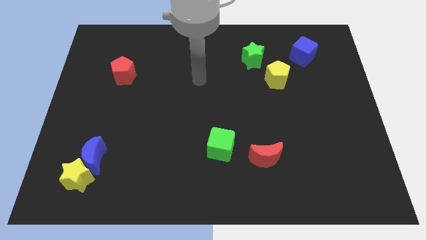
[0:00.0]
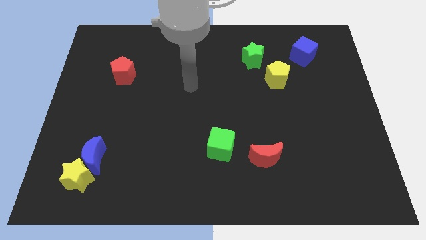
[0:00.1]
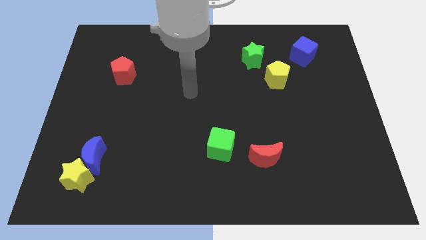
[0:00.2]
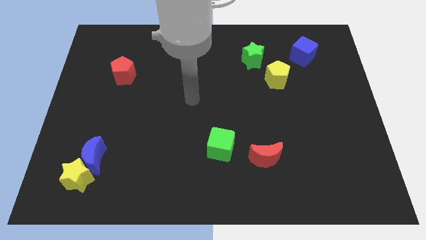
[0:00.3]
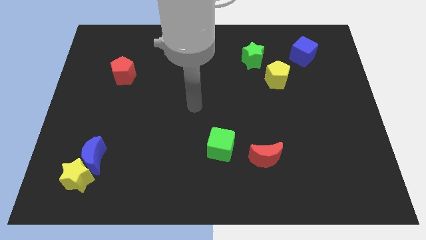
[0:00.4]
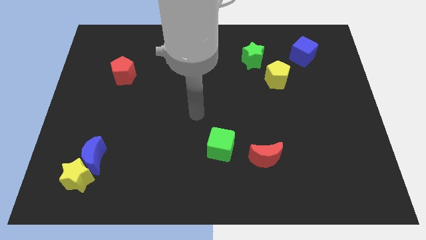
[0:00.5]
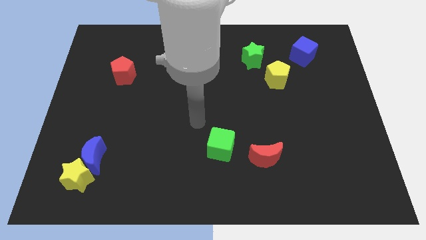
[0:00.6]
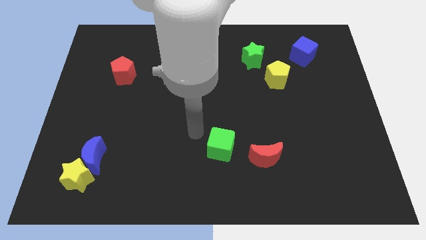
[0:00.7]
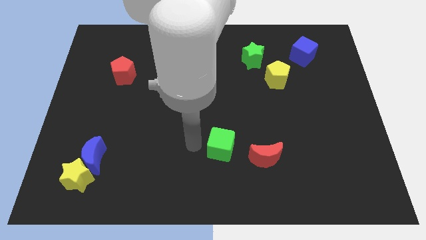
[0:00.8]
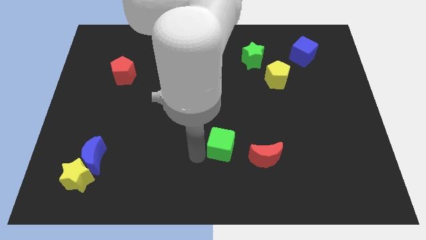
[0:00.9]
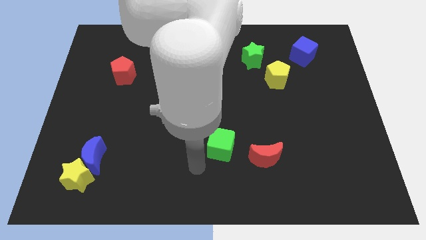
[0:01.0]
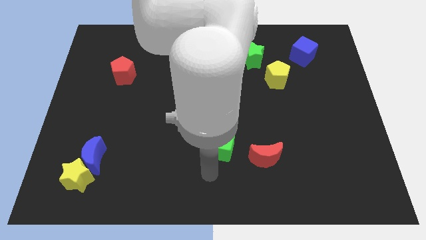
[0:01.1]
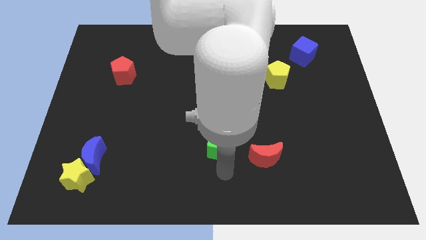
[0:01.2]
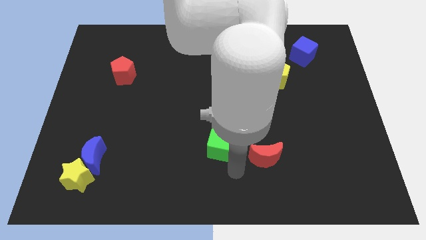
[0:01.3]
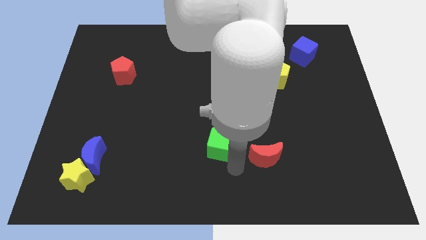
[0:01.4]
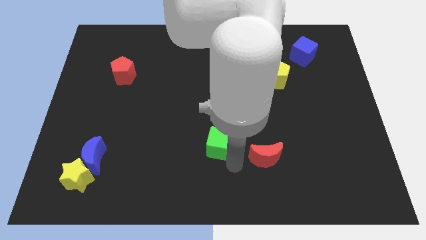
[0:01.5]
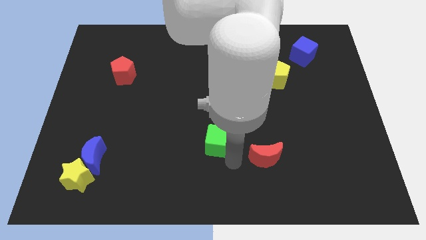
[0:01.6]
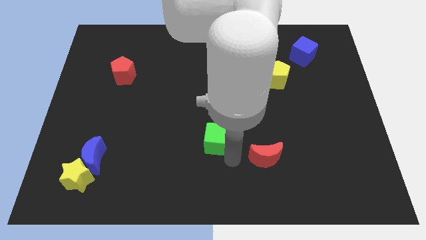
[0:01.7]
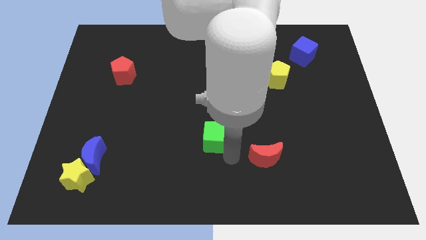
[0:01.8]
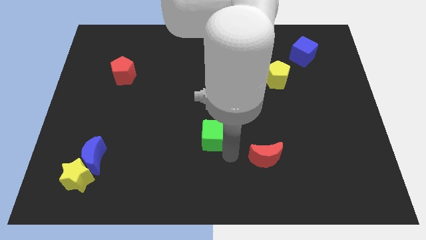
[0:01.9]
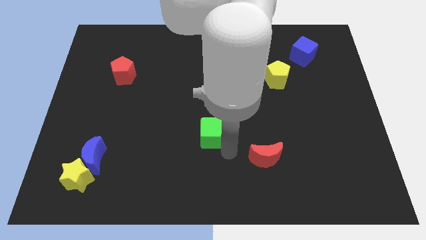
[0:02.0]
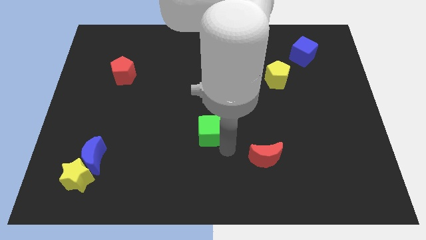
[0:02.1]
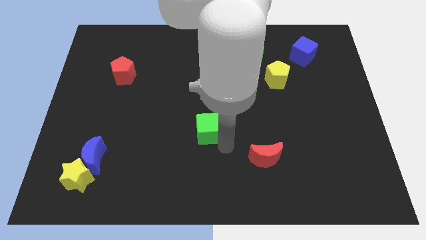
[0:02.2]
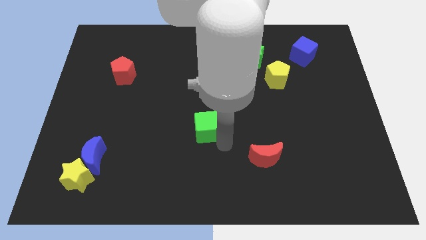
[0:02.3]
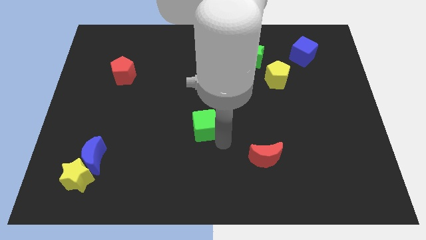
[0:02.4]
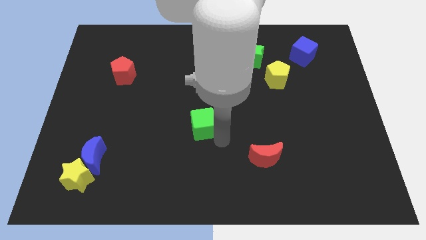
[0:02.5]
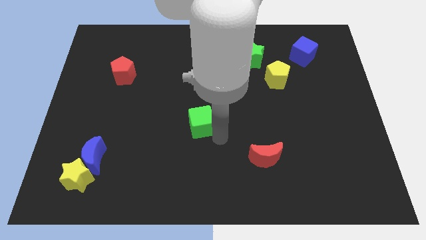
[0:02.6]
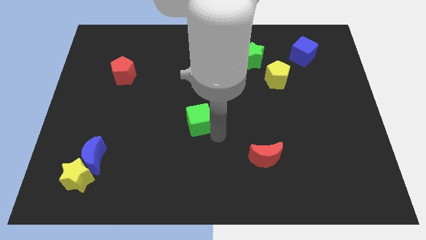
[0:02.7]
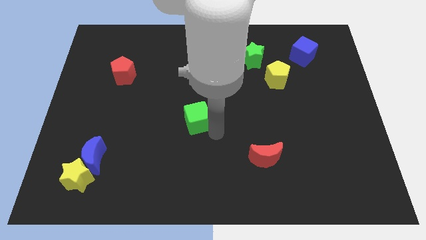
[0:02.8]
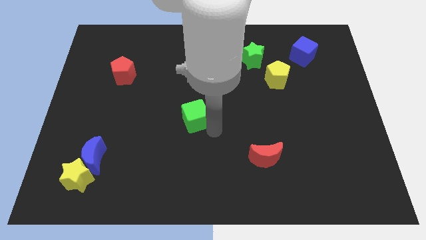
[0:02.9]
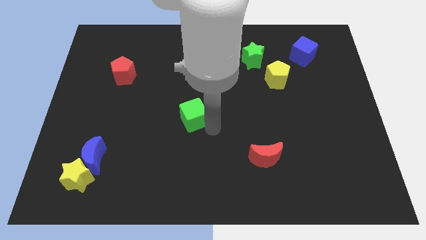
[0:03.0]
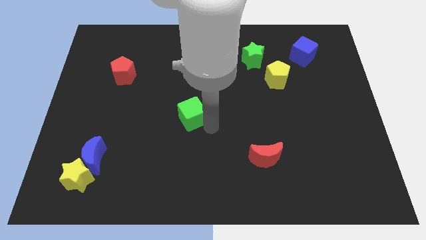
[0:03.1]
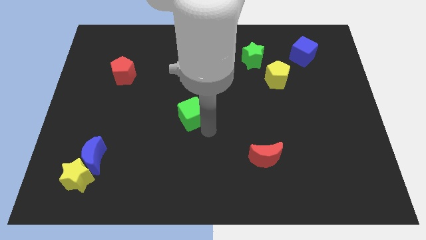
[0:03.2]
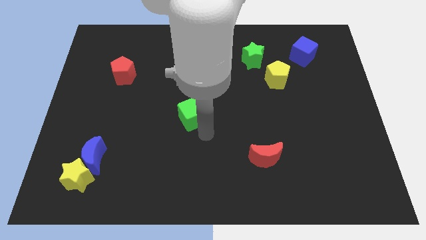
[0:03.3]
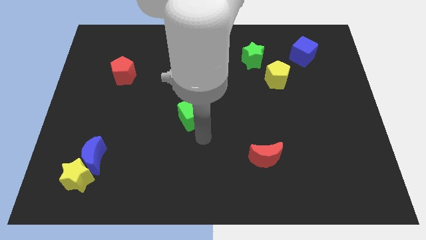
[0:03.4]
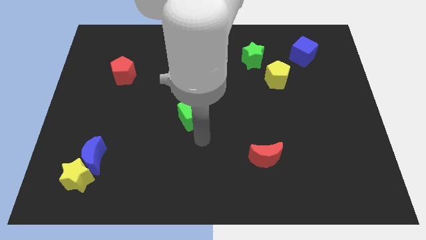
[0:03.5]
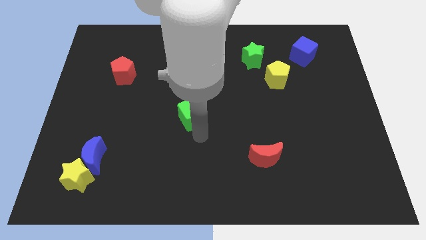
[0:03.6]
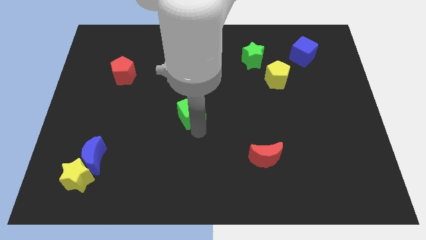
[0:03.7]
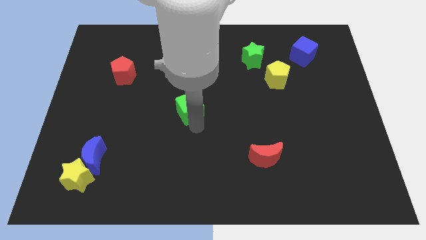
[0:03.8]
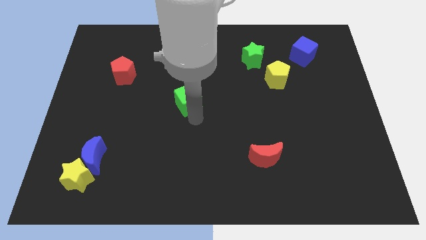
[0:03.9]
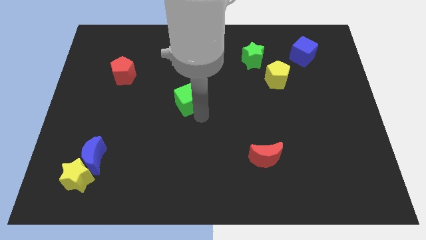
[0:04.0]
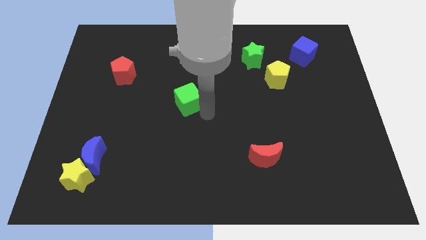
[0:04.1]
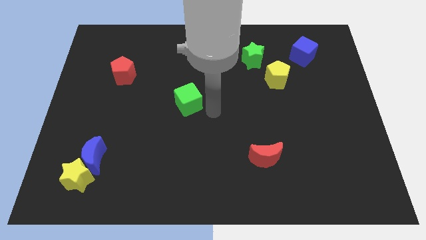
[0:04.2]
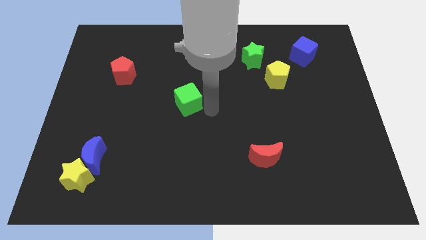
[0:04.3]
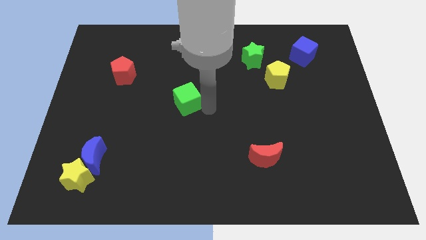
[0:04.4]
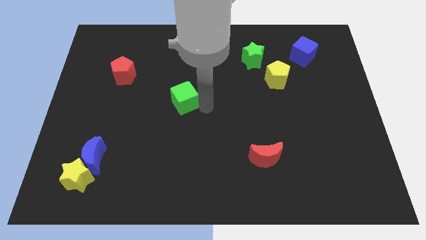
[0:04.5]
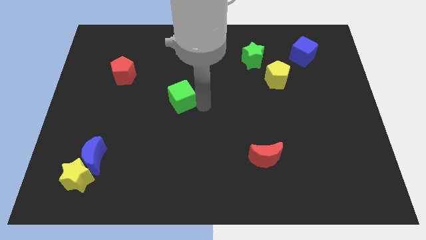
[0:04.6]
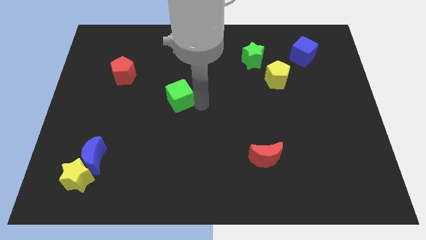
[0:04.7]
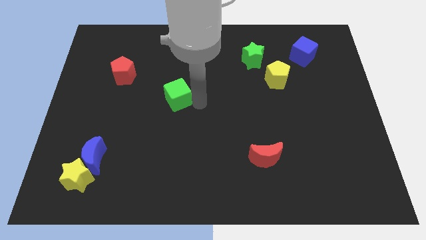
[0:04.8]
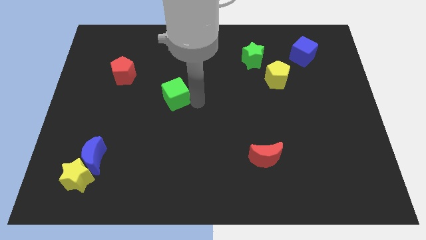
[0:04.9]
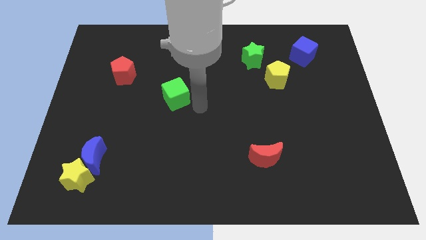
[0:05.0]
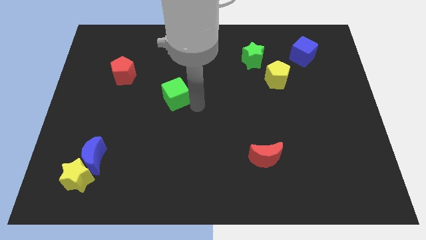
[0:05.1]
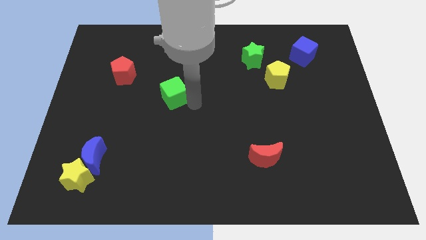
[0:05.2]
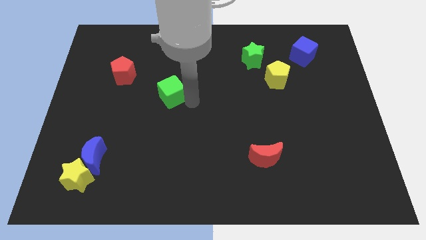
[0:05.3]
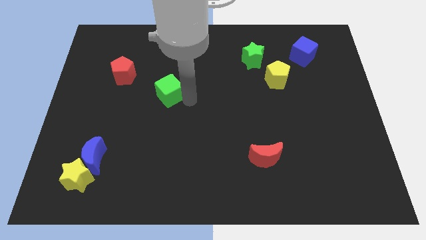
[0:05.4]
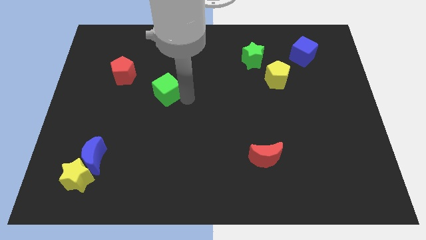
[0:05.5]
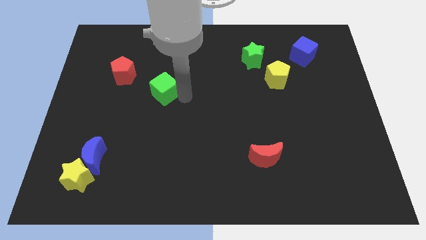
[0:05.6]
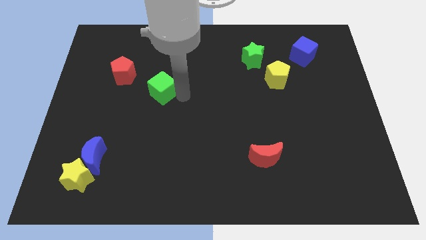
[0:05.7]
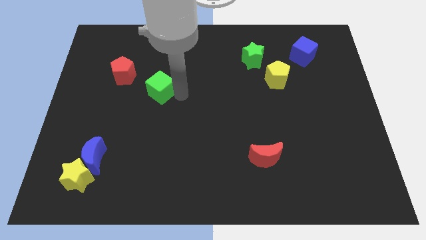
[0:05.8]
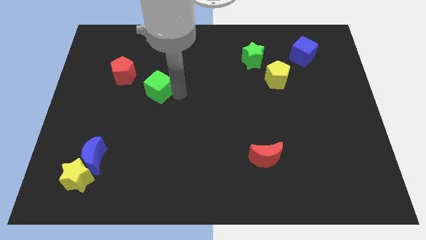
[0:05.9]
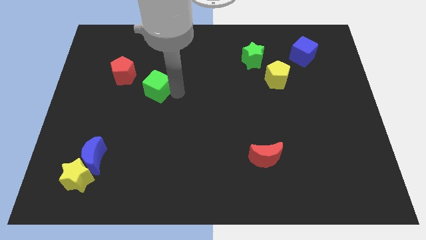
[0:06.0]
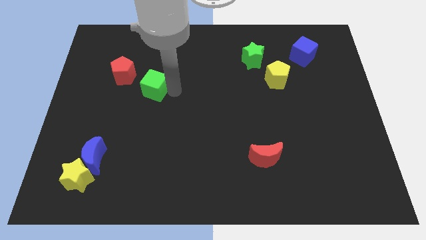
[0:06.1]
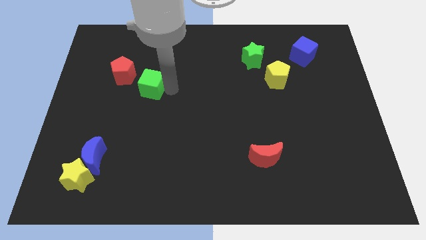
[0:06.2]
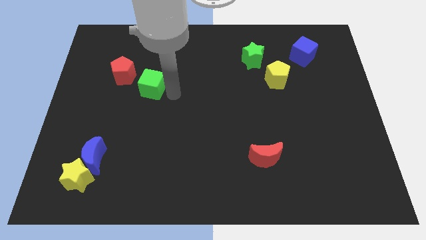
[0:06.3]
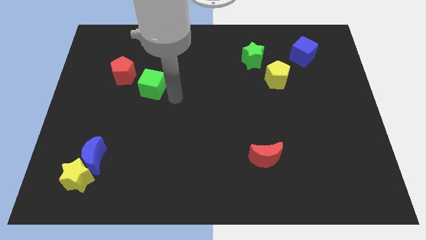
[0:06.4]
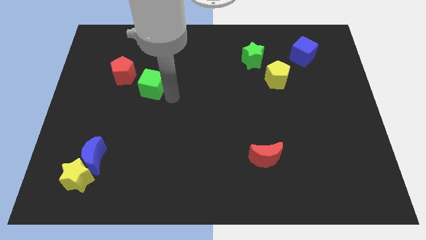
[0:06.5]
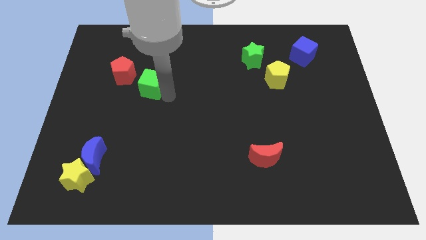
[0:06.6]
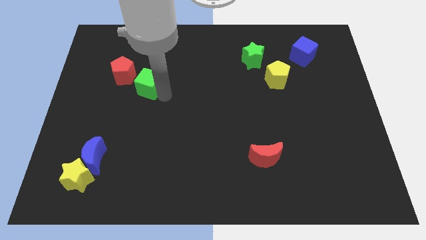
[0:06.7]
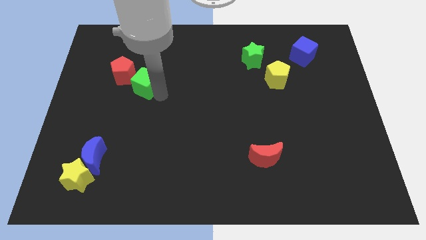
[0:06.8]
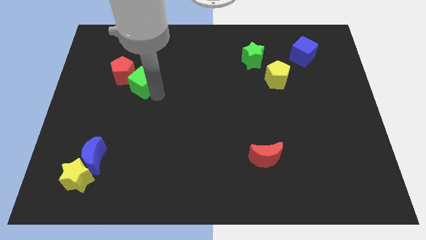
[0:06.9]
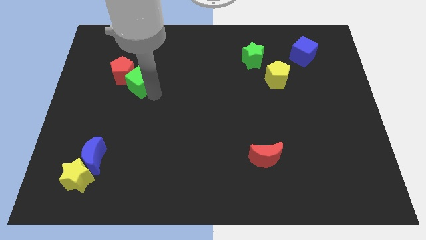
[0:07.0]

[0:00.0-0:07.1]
slide the green cube to the red pentagon

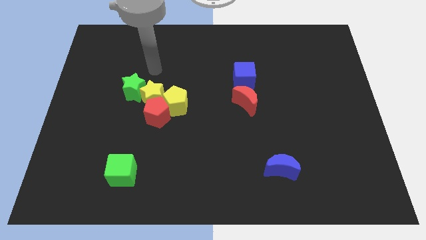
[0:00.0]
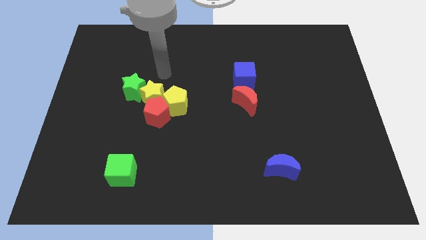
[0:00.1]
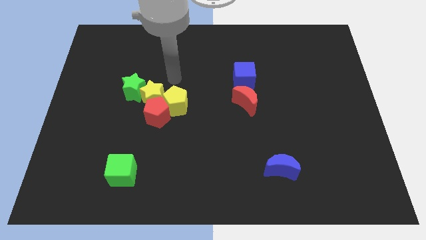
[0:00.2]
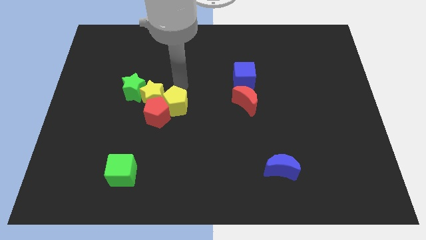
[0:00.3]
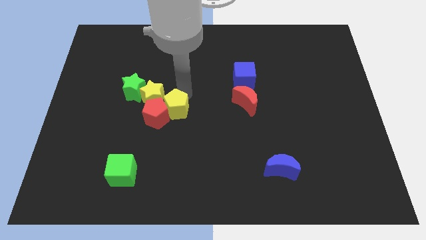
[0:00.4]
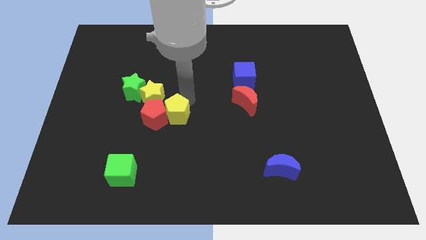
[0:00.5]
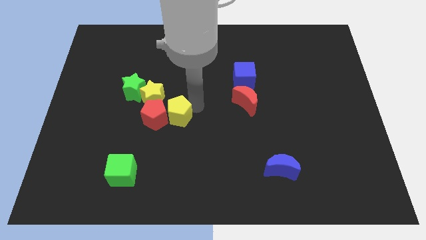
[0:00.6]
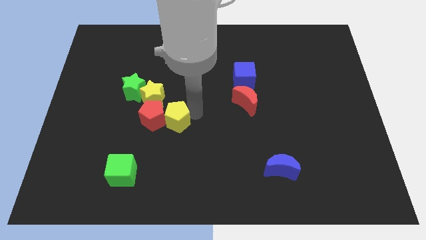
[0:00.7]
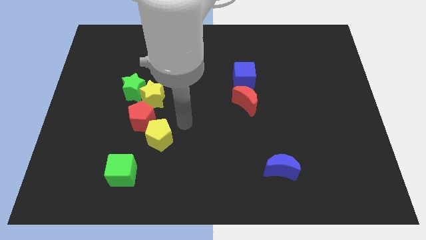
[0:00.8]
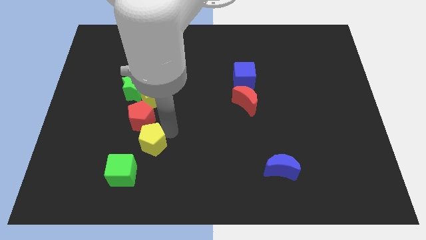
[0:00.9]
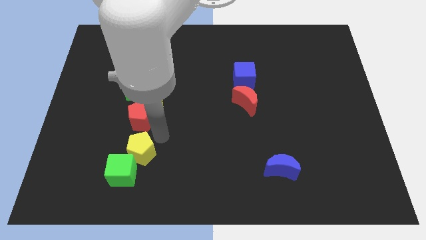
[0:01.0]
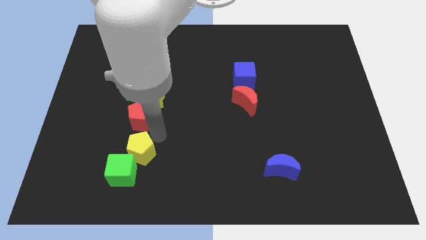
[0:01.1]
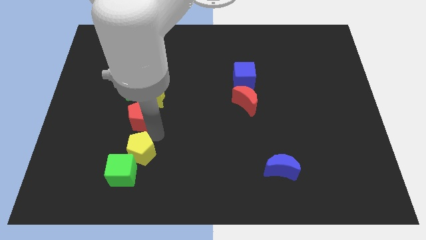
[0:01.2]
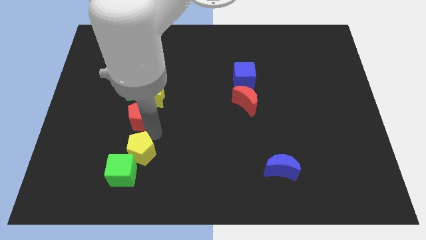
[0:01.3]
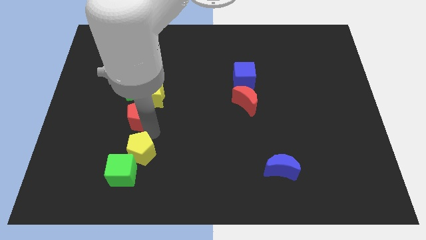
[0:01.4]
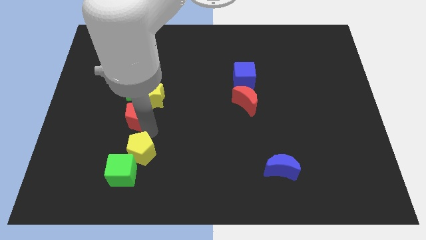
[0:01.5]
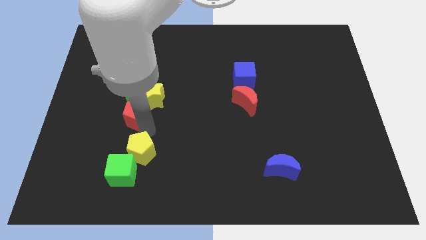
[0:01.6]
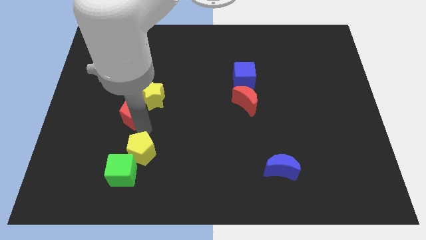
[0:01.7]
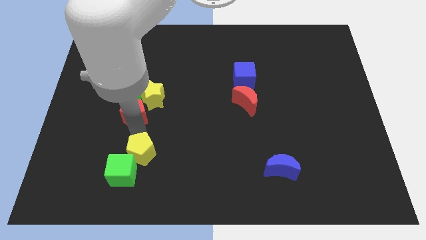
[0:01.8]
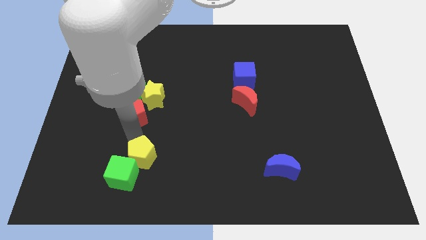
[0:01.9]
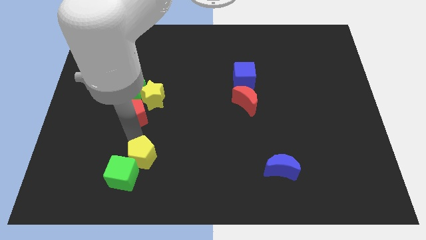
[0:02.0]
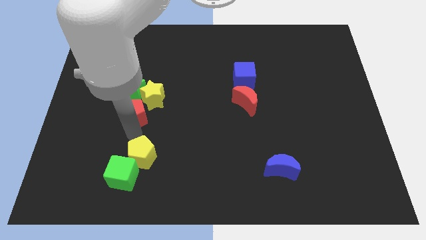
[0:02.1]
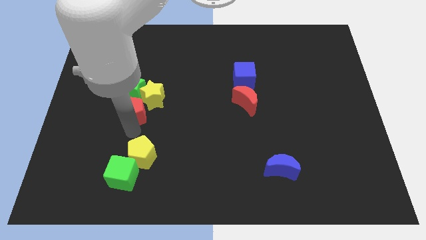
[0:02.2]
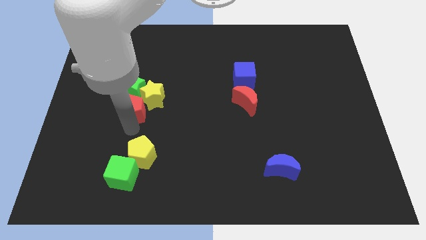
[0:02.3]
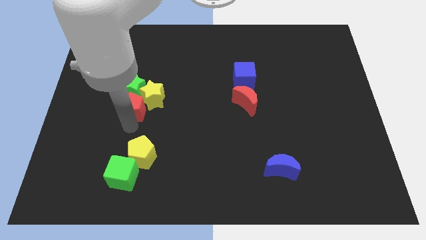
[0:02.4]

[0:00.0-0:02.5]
slide the red pentagon to the green star
